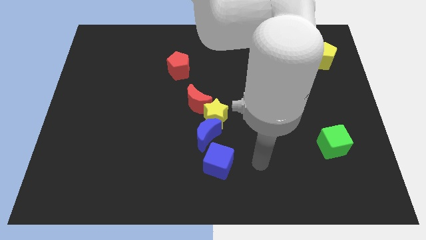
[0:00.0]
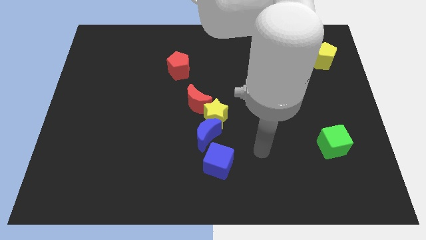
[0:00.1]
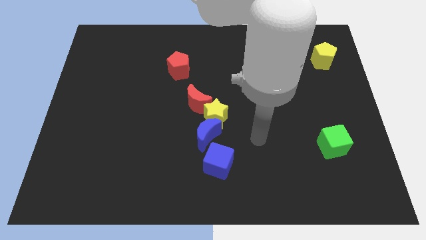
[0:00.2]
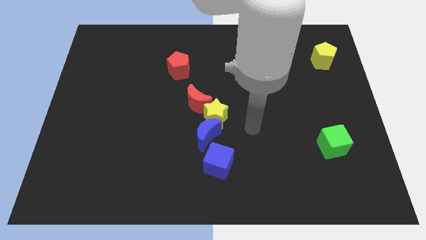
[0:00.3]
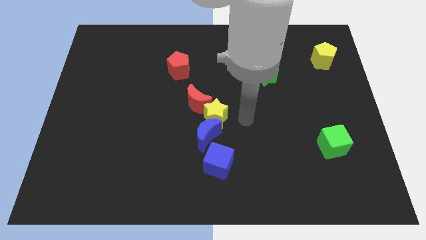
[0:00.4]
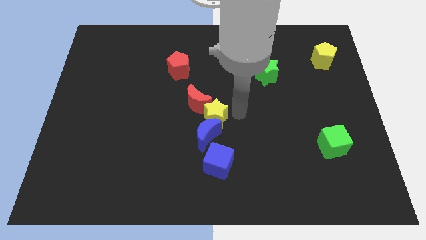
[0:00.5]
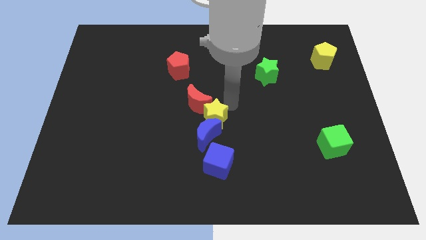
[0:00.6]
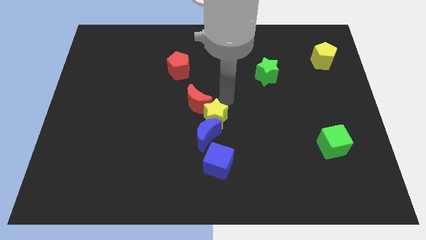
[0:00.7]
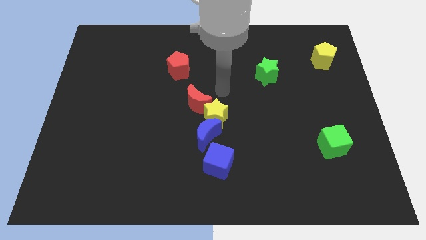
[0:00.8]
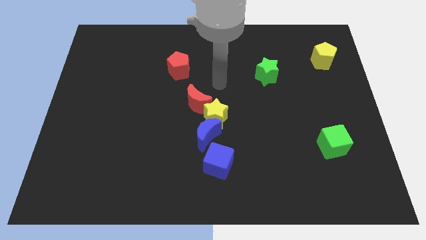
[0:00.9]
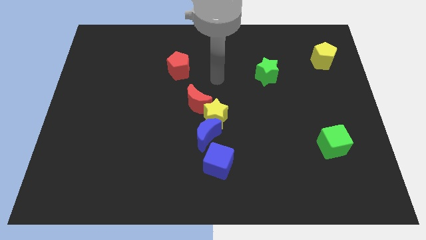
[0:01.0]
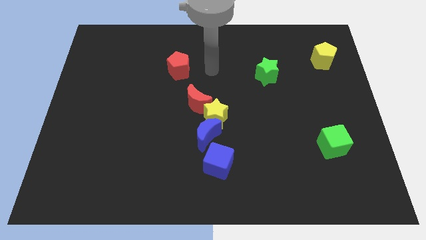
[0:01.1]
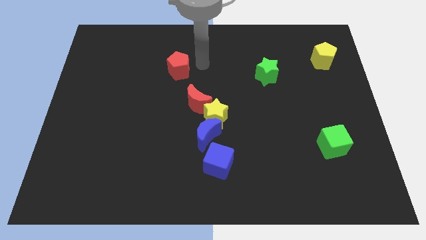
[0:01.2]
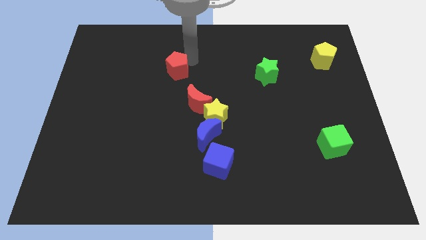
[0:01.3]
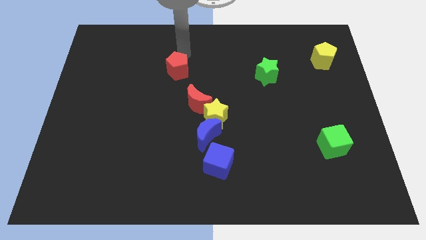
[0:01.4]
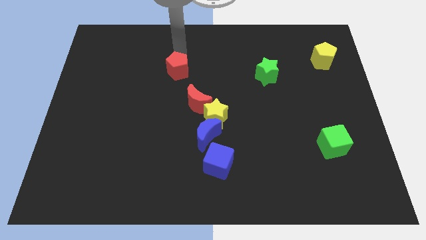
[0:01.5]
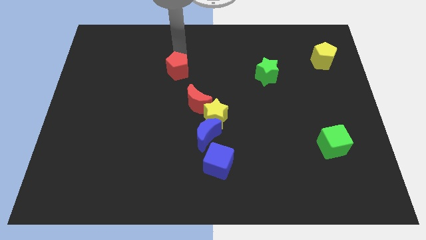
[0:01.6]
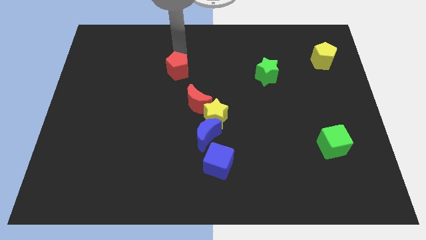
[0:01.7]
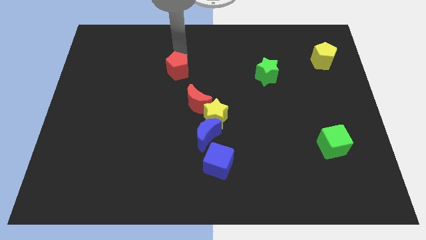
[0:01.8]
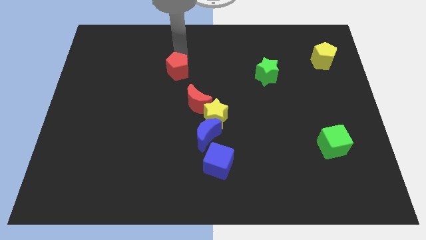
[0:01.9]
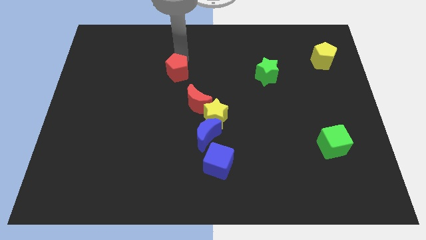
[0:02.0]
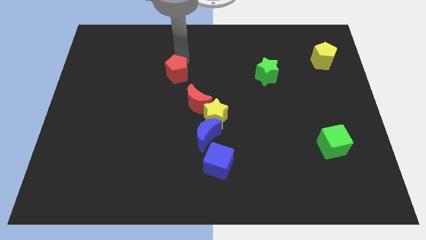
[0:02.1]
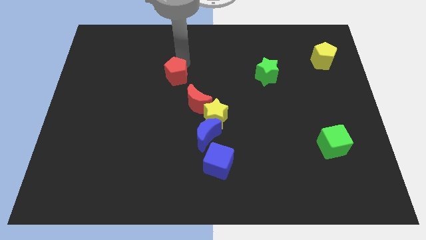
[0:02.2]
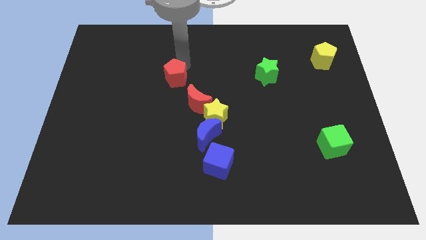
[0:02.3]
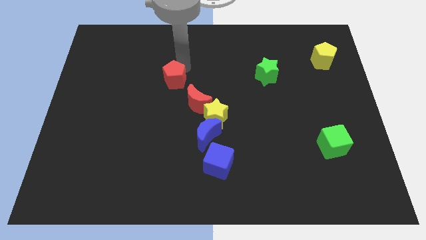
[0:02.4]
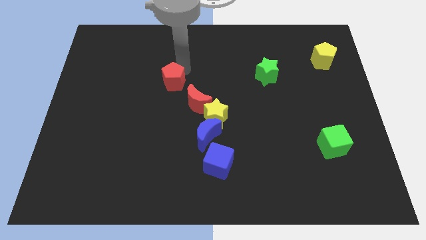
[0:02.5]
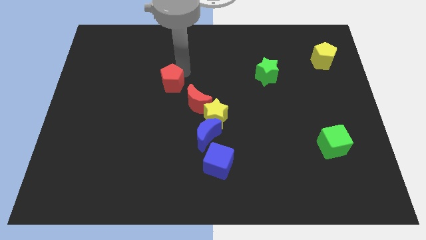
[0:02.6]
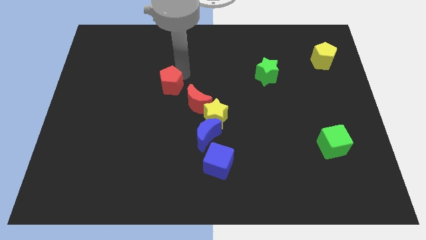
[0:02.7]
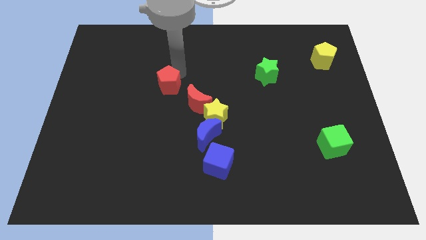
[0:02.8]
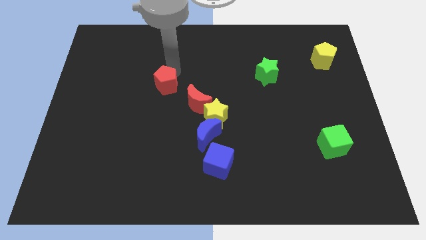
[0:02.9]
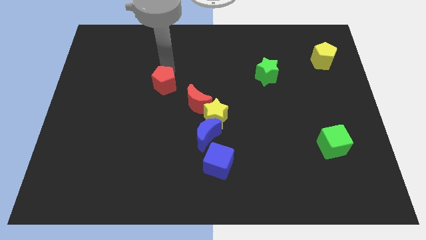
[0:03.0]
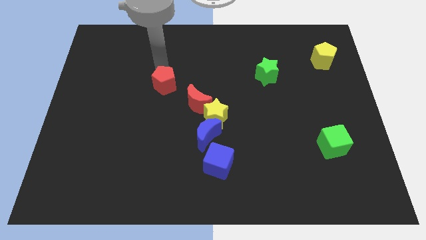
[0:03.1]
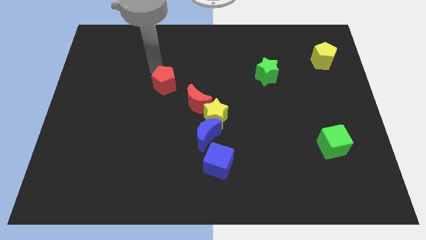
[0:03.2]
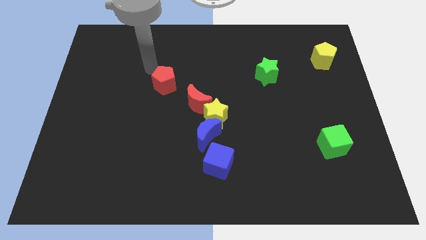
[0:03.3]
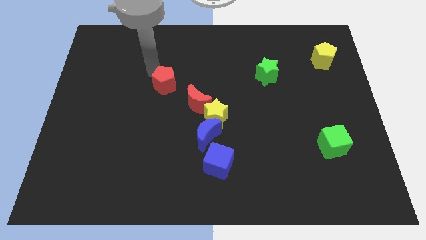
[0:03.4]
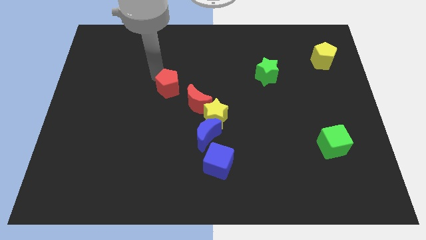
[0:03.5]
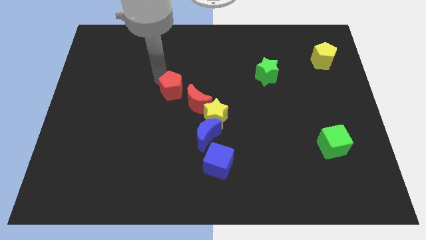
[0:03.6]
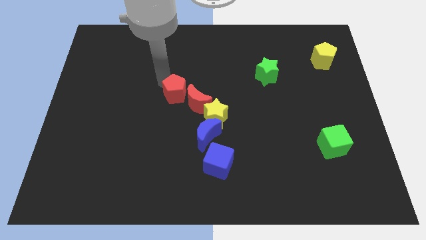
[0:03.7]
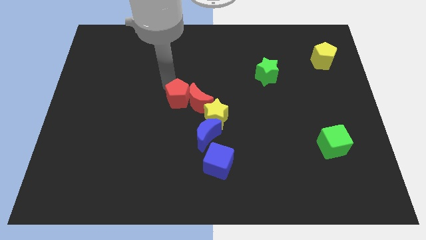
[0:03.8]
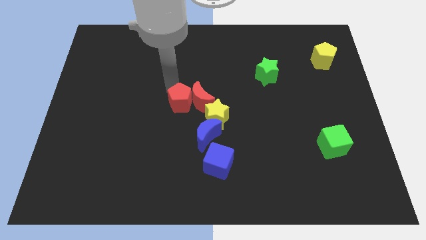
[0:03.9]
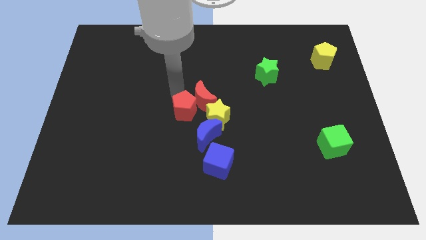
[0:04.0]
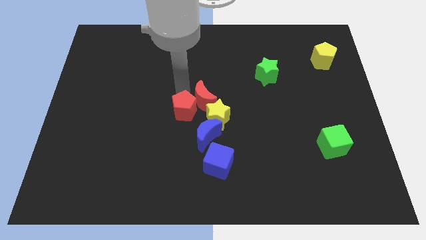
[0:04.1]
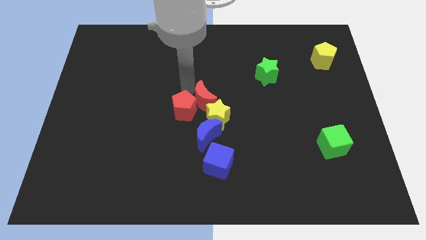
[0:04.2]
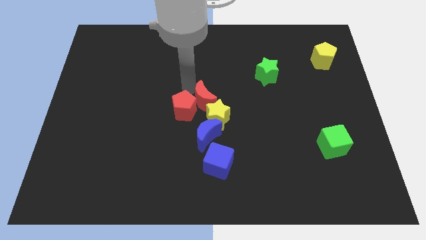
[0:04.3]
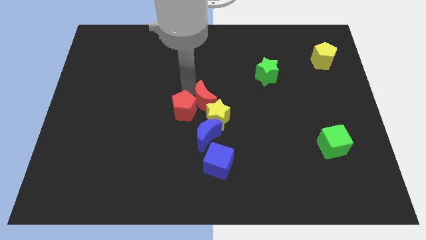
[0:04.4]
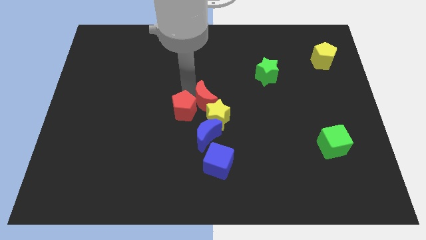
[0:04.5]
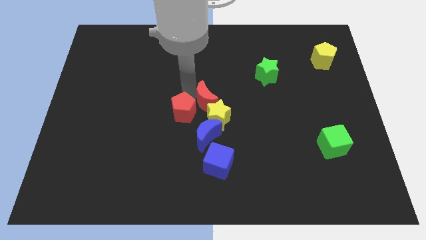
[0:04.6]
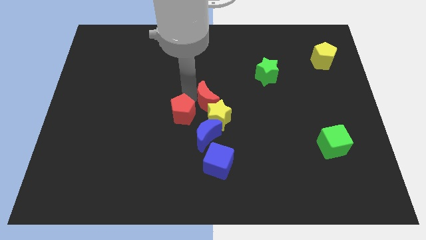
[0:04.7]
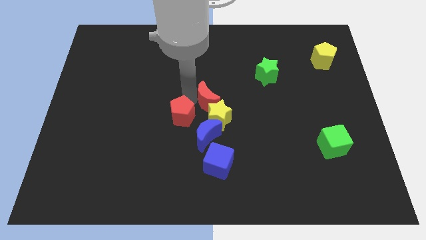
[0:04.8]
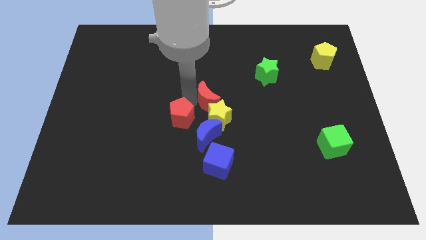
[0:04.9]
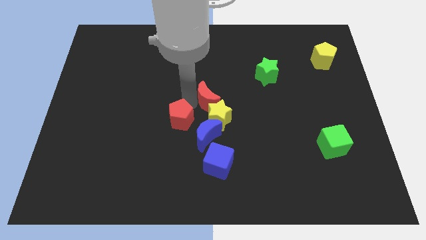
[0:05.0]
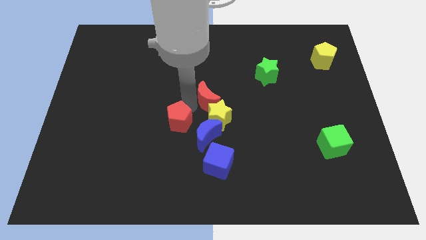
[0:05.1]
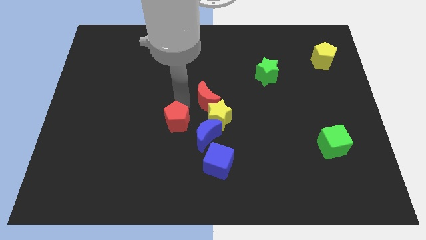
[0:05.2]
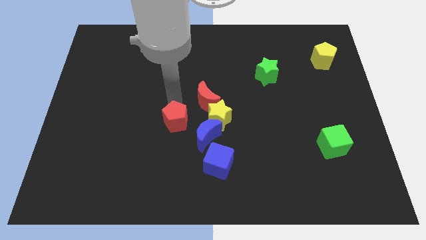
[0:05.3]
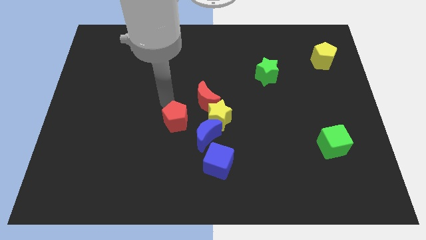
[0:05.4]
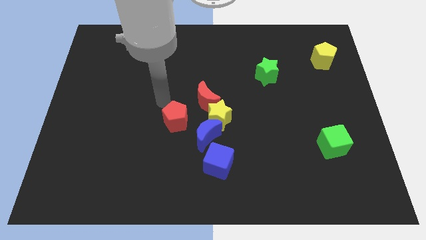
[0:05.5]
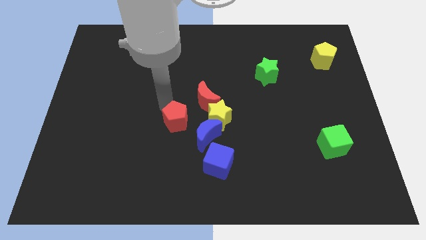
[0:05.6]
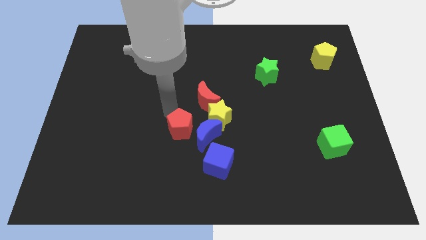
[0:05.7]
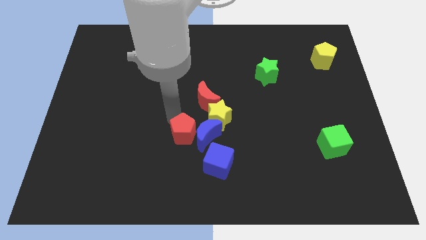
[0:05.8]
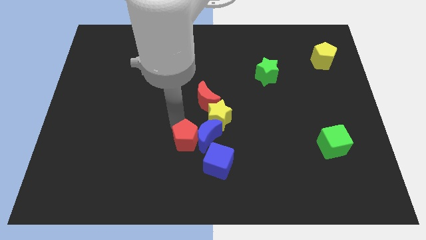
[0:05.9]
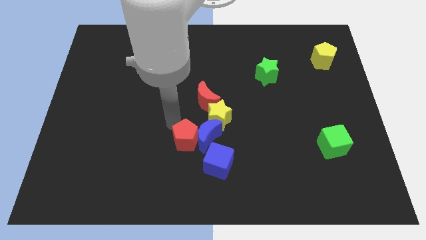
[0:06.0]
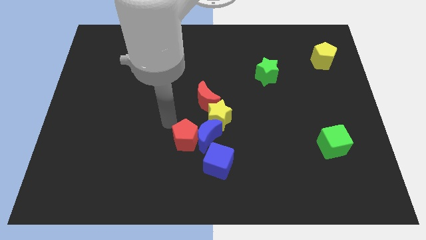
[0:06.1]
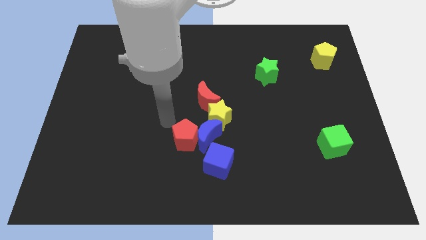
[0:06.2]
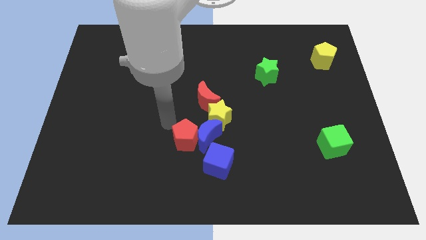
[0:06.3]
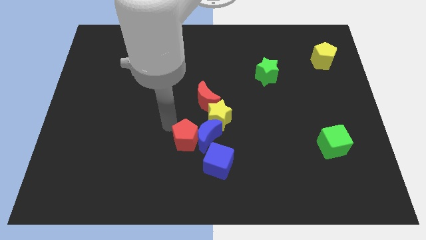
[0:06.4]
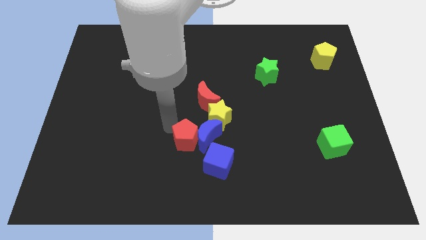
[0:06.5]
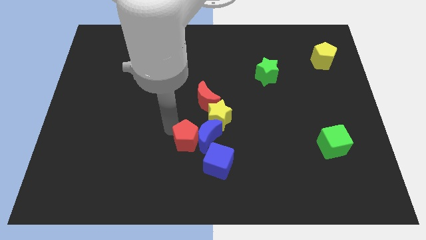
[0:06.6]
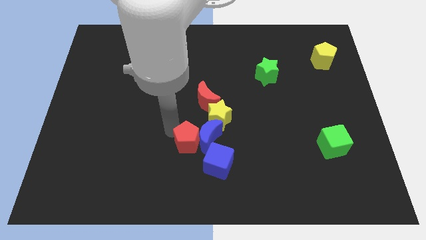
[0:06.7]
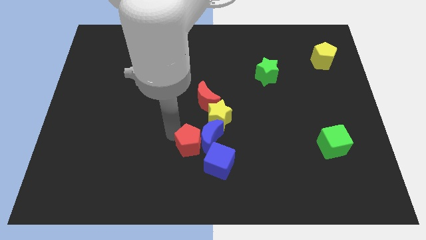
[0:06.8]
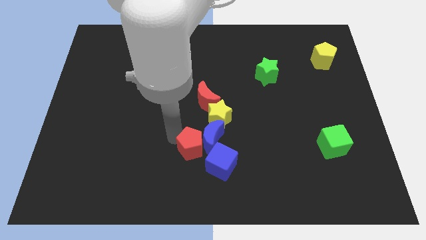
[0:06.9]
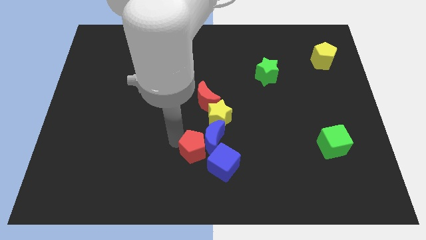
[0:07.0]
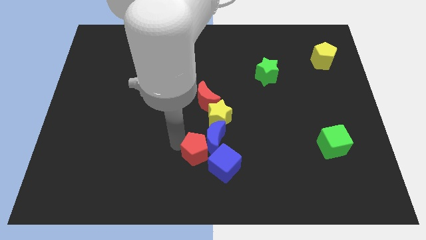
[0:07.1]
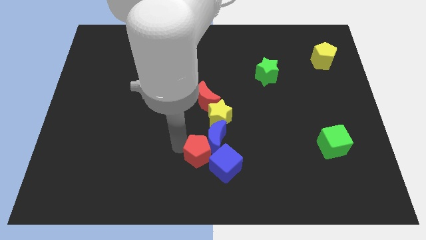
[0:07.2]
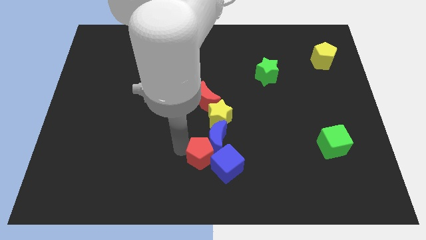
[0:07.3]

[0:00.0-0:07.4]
push the red pentagon close to the blue cube
